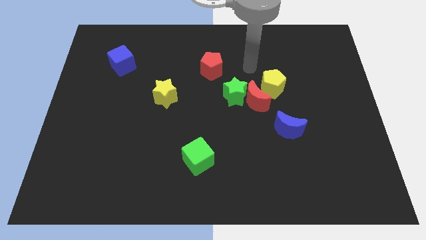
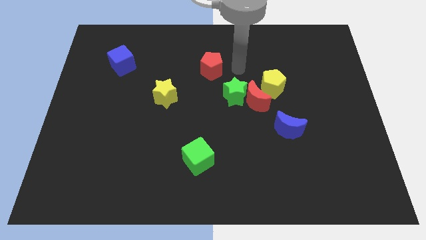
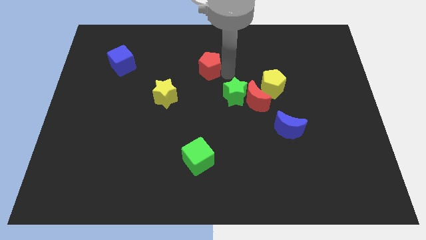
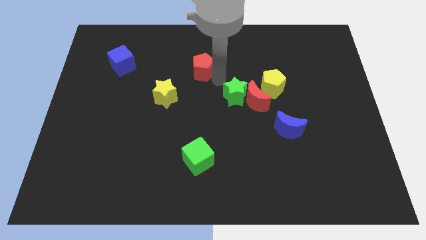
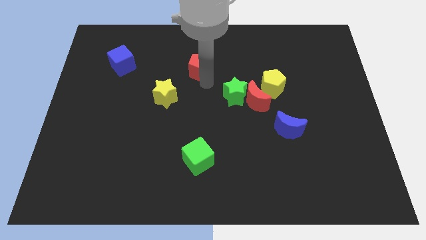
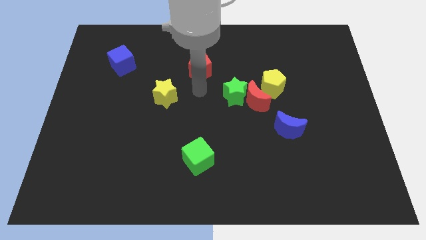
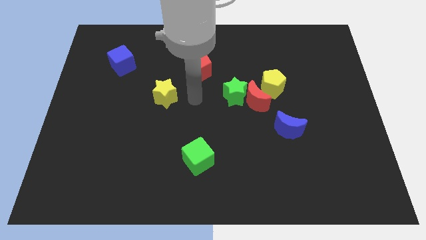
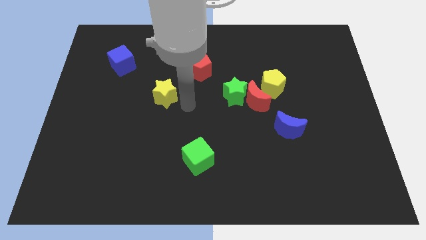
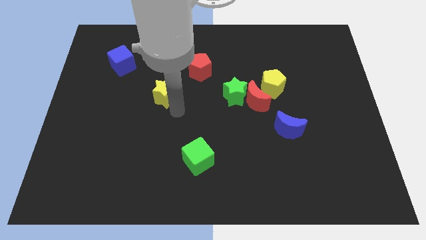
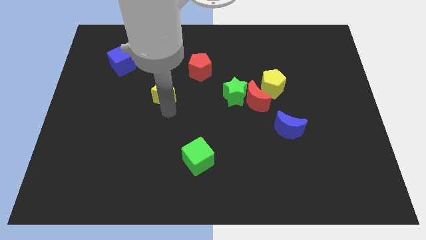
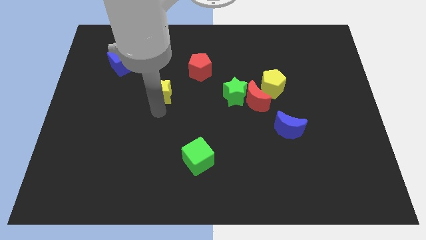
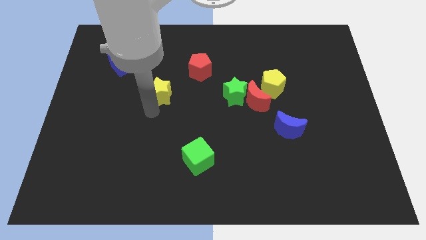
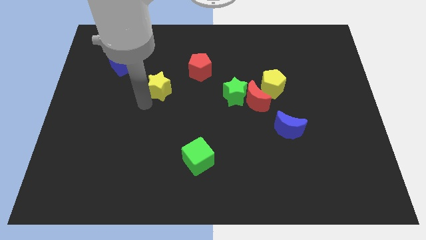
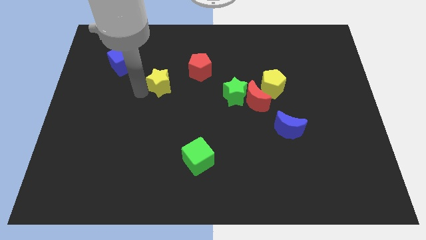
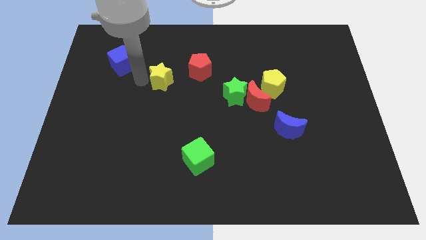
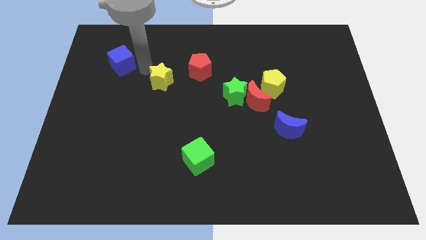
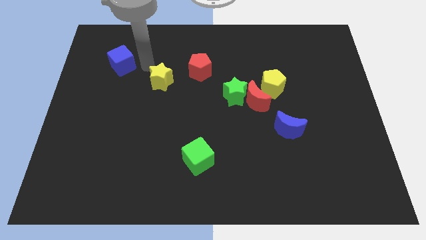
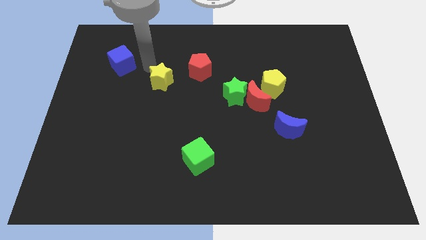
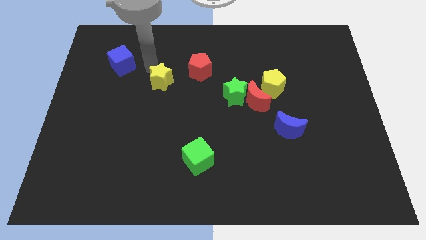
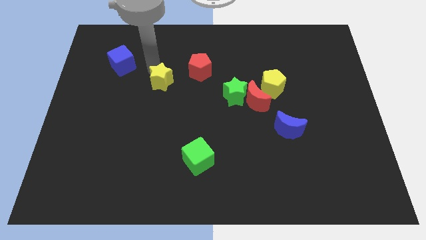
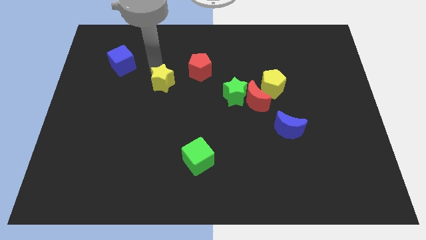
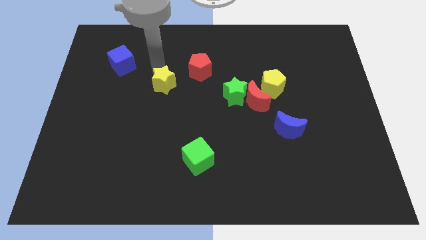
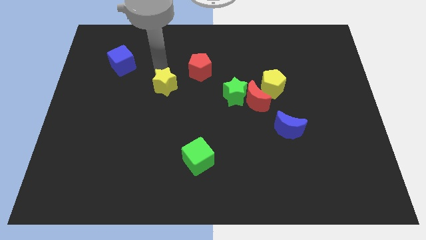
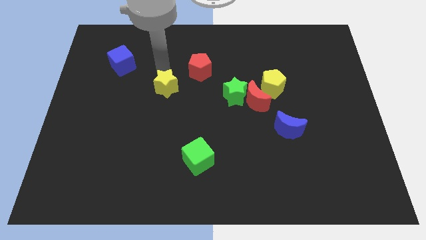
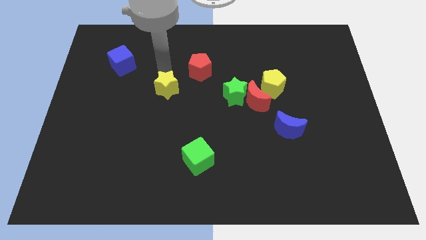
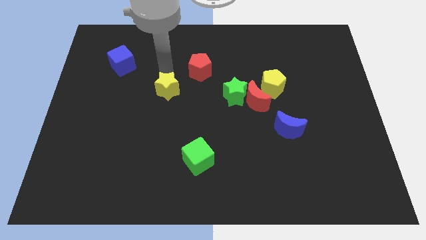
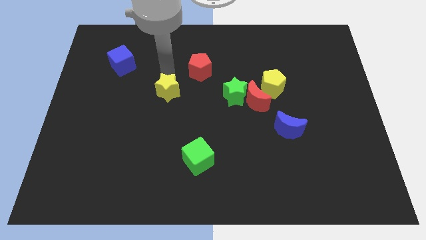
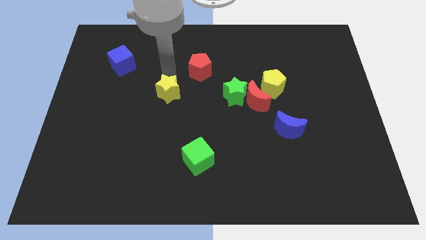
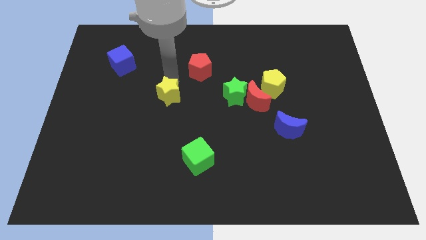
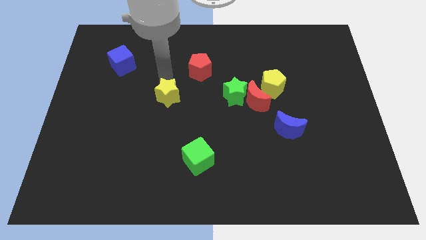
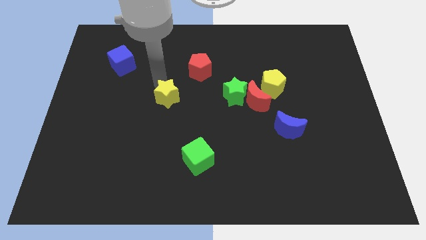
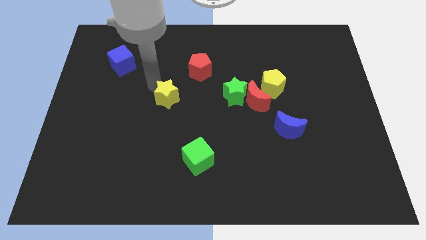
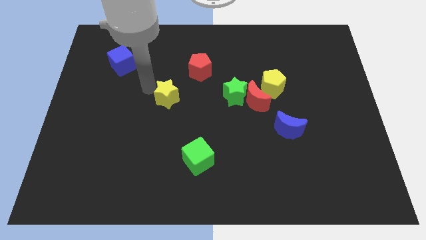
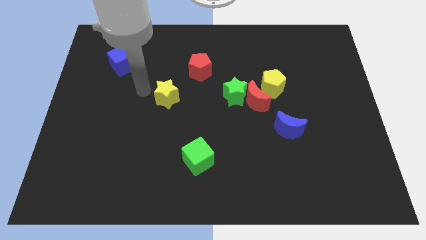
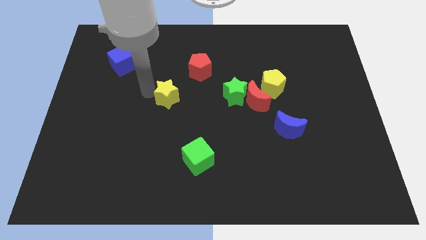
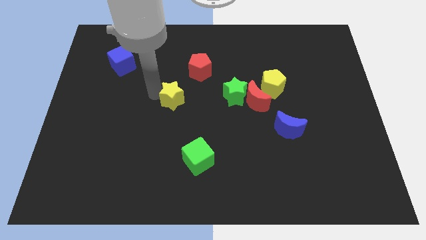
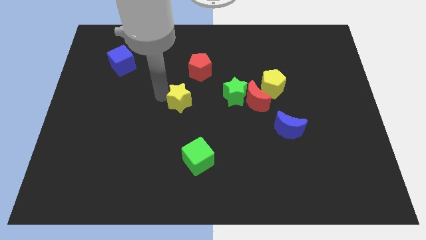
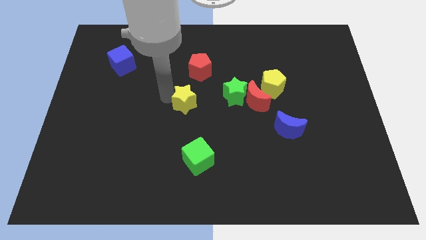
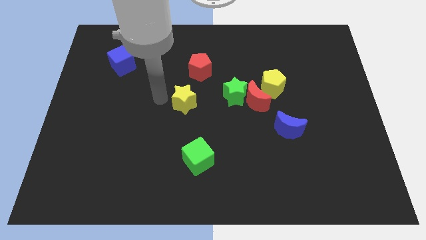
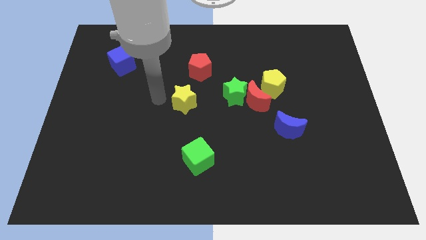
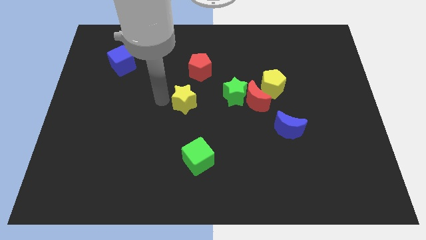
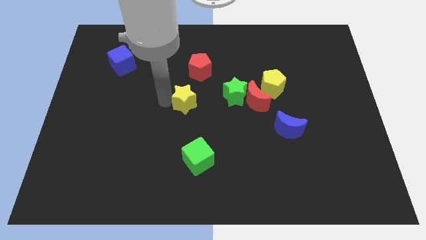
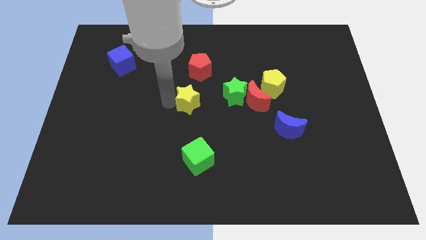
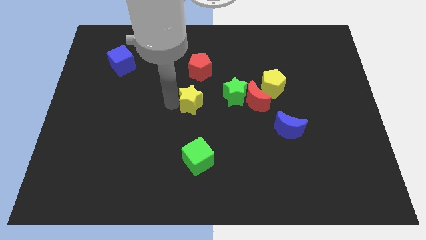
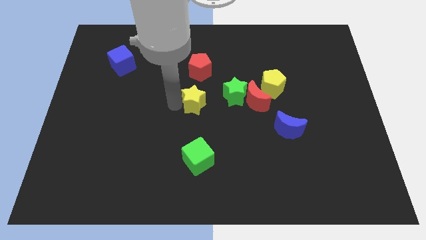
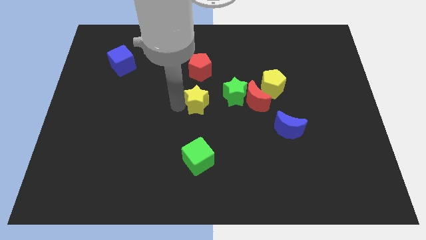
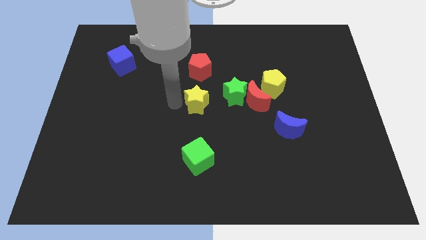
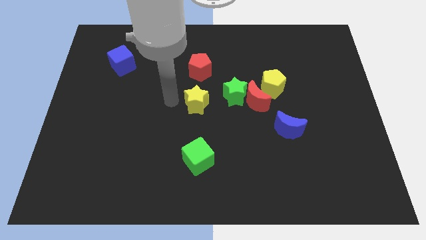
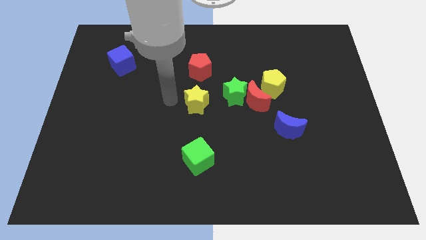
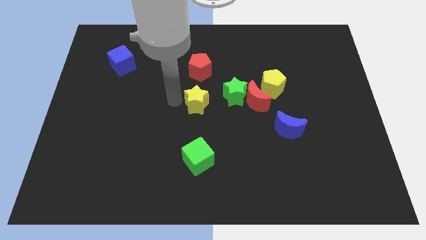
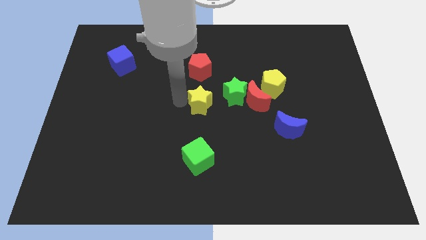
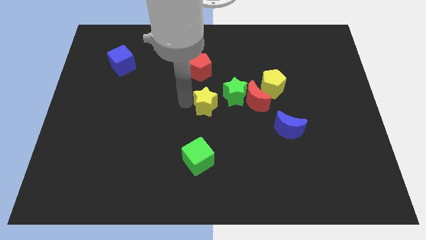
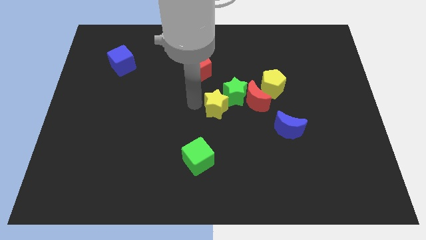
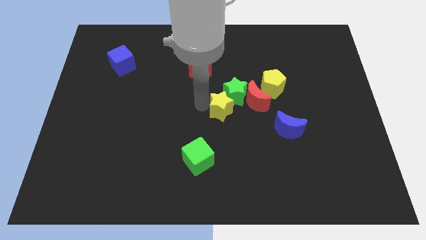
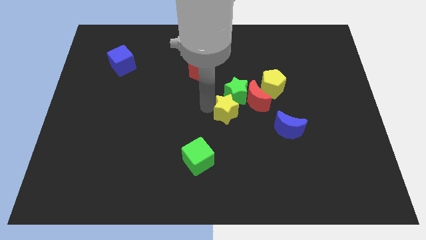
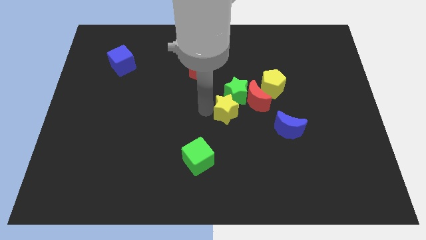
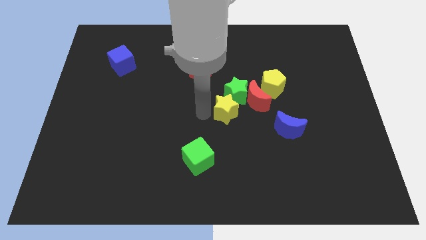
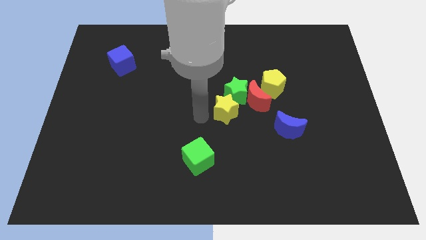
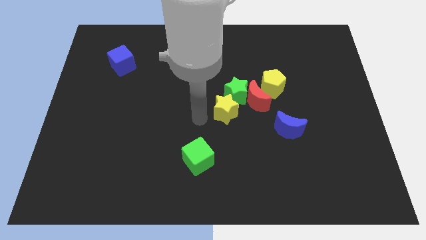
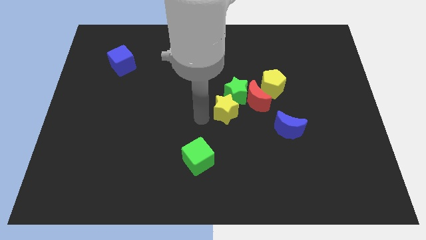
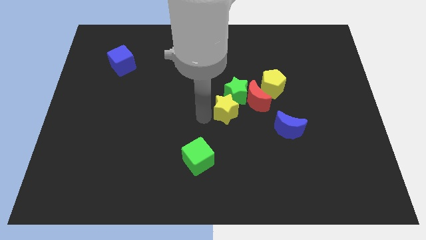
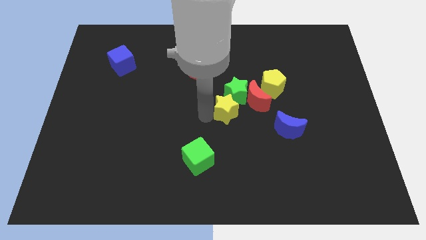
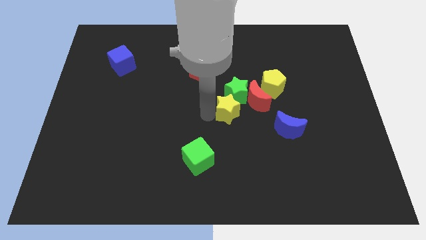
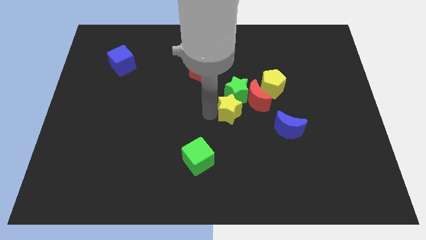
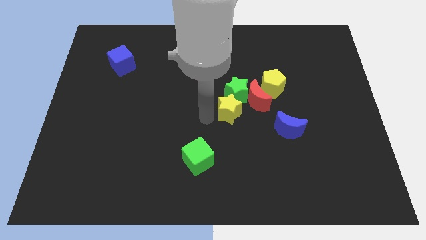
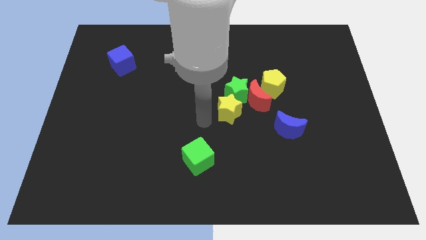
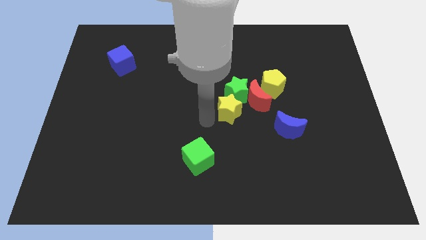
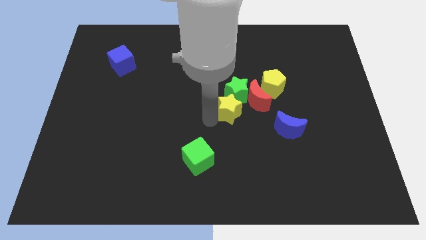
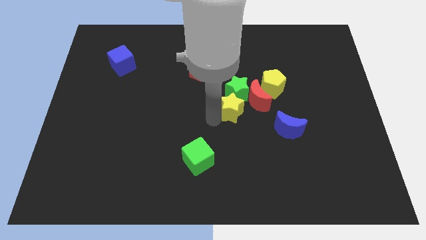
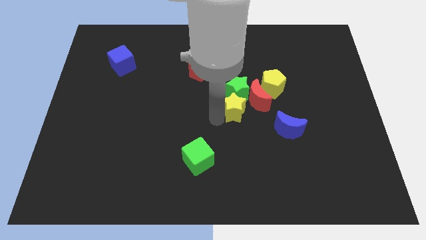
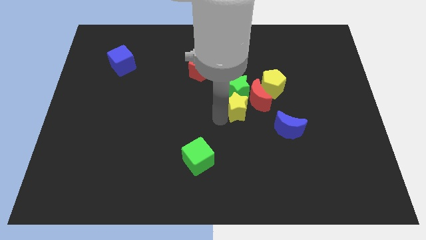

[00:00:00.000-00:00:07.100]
push the yellow star to the red moon
